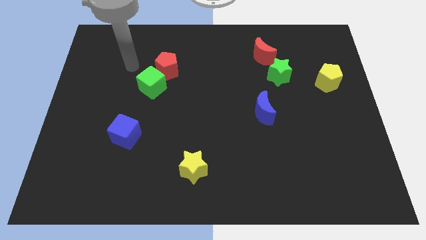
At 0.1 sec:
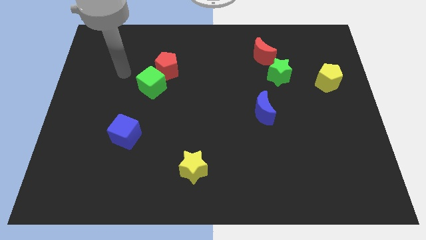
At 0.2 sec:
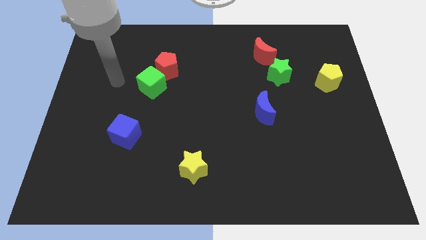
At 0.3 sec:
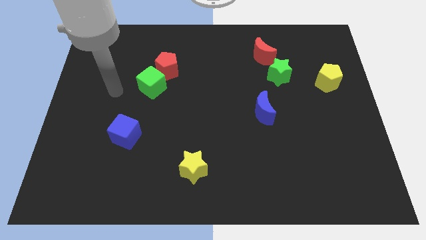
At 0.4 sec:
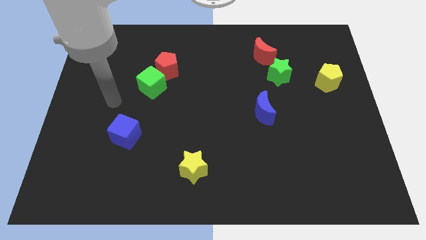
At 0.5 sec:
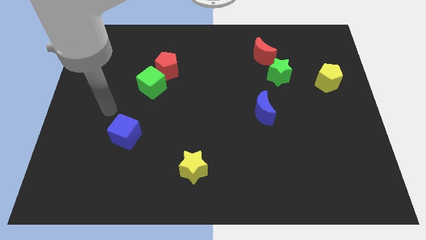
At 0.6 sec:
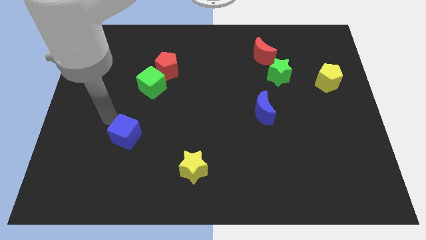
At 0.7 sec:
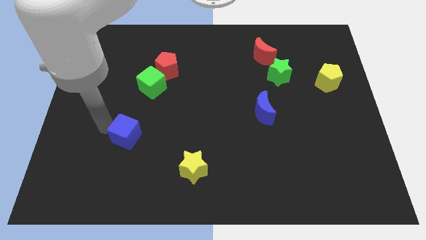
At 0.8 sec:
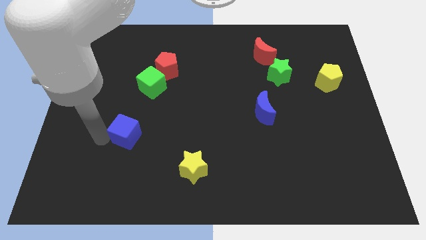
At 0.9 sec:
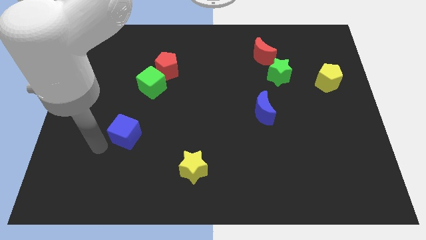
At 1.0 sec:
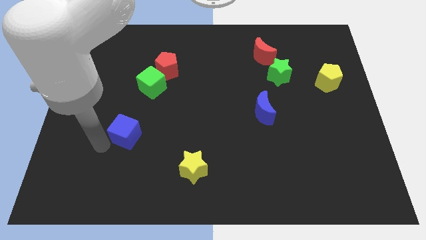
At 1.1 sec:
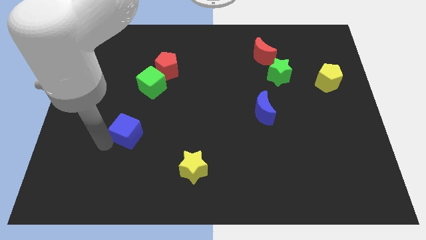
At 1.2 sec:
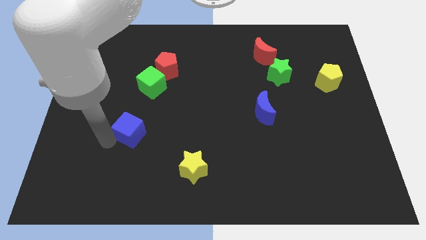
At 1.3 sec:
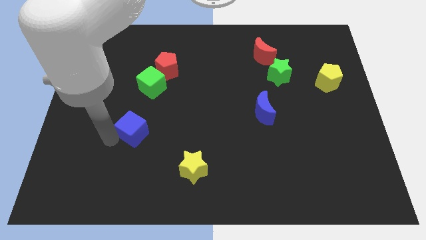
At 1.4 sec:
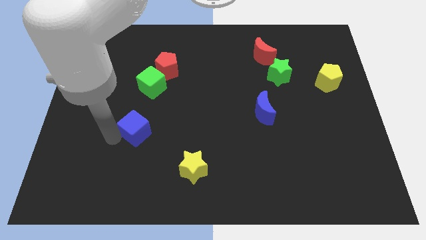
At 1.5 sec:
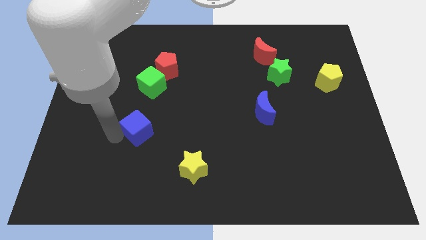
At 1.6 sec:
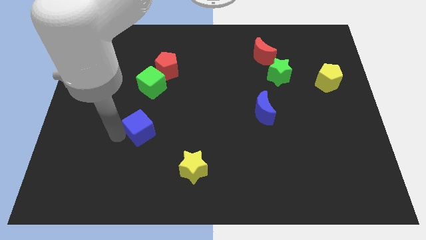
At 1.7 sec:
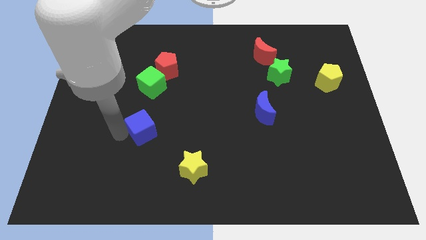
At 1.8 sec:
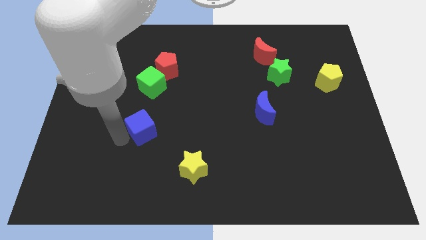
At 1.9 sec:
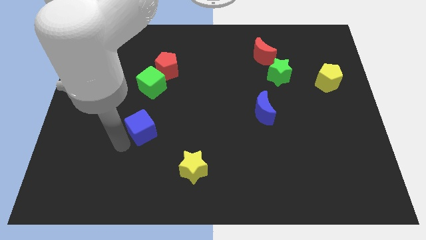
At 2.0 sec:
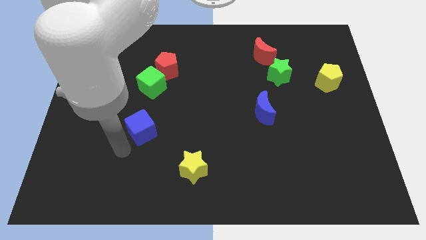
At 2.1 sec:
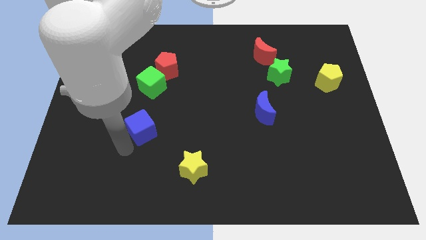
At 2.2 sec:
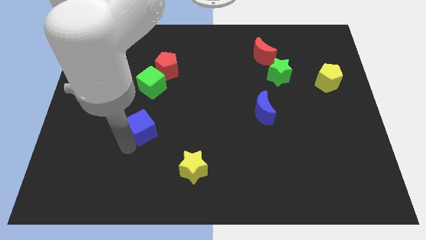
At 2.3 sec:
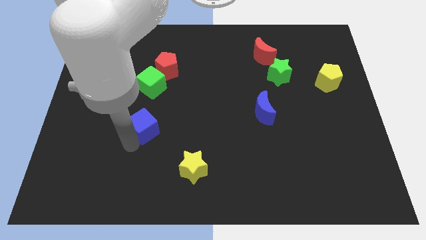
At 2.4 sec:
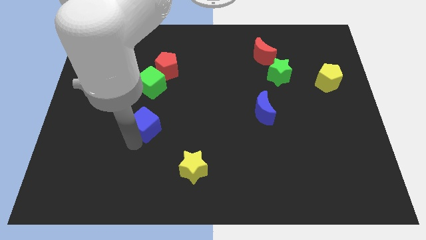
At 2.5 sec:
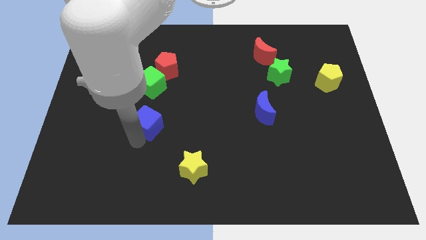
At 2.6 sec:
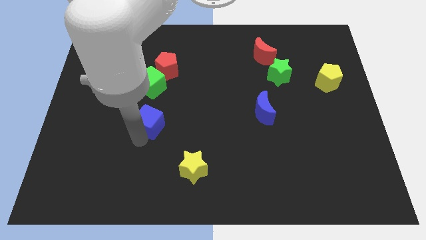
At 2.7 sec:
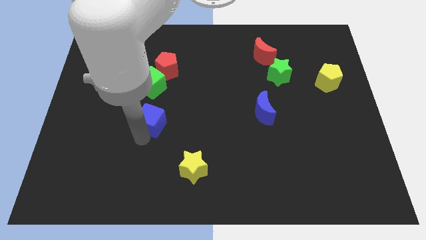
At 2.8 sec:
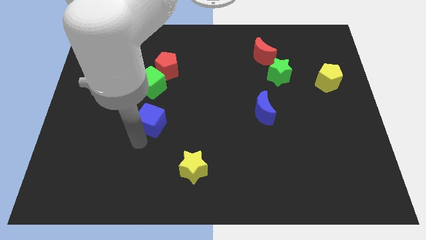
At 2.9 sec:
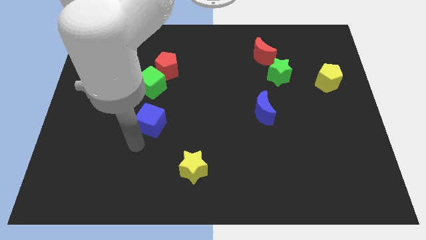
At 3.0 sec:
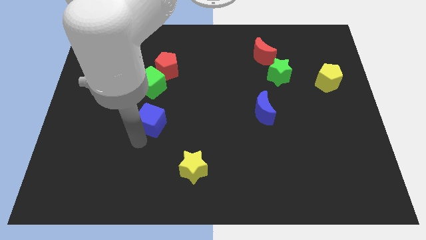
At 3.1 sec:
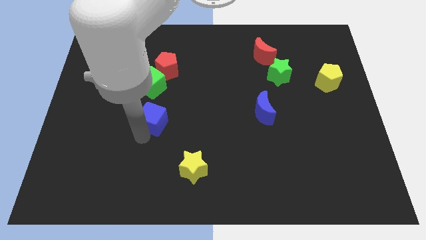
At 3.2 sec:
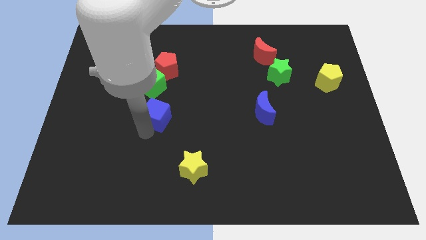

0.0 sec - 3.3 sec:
slide the blue cube slightly up and to the right

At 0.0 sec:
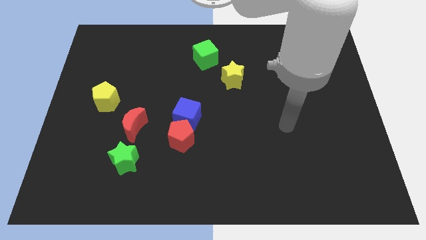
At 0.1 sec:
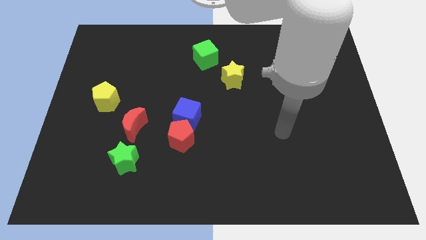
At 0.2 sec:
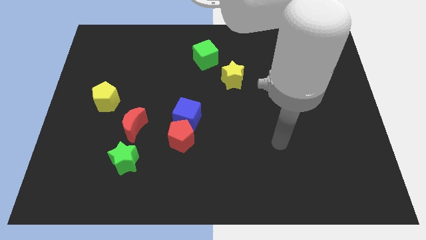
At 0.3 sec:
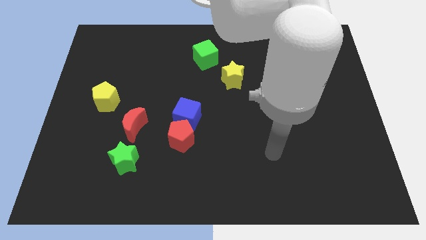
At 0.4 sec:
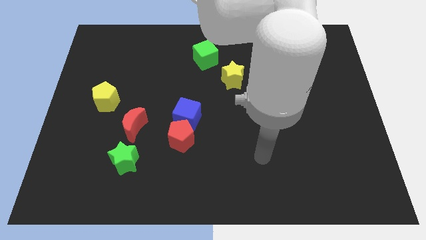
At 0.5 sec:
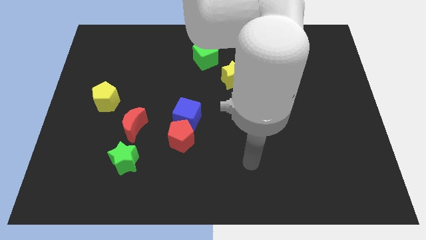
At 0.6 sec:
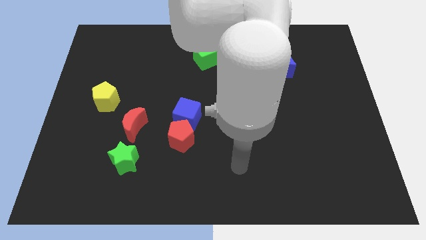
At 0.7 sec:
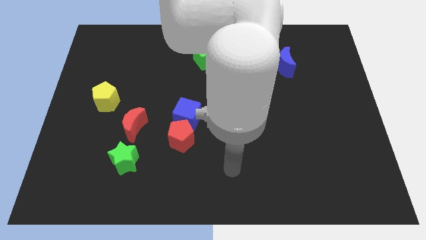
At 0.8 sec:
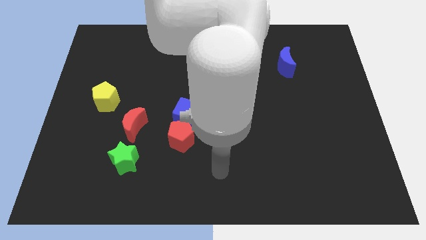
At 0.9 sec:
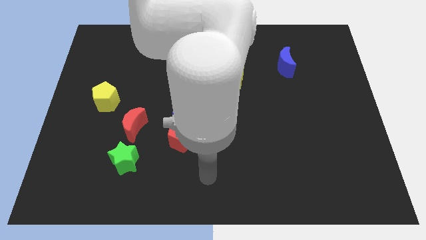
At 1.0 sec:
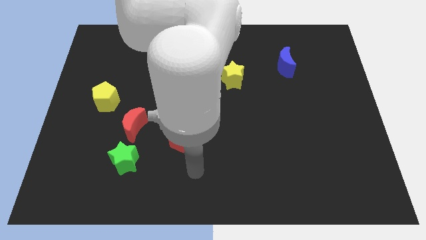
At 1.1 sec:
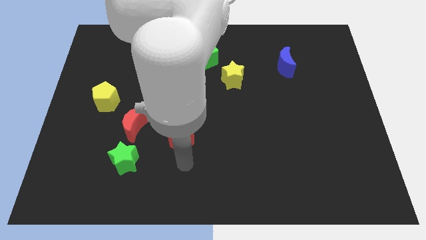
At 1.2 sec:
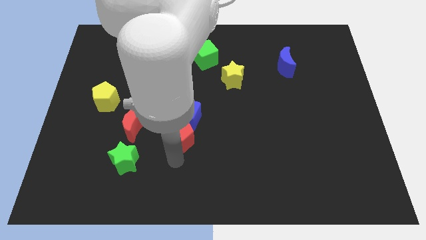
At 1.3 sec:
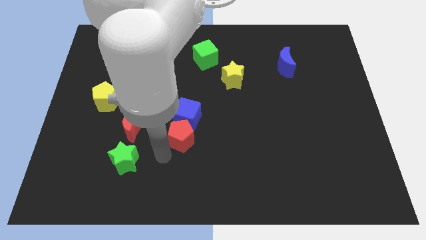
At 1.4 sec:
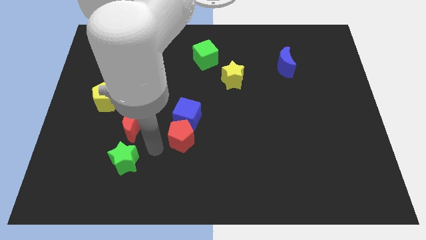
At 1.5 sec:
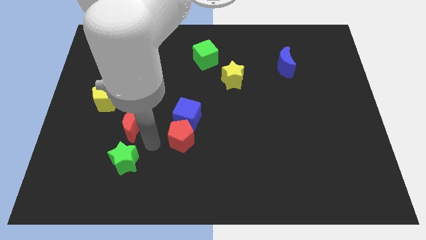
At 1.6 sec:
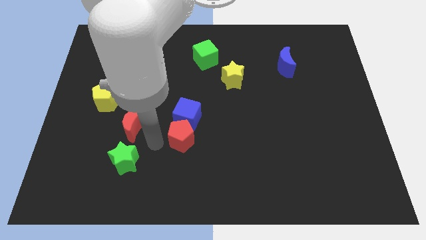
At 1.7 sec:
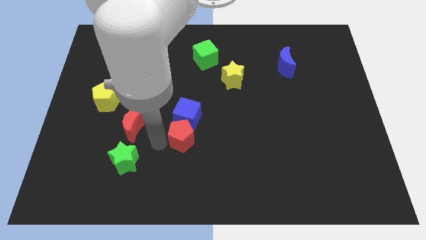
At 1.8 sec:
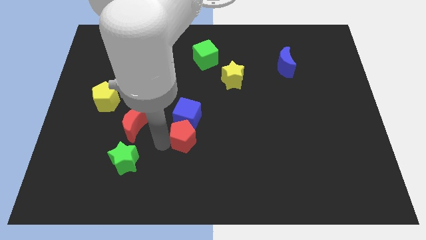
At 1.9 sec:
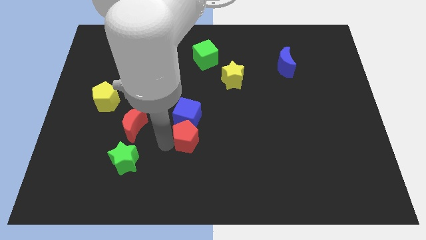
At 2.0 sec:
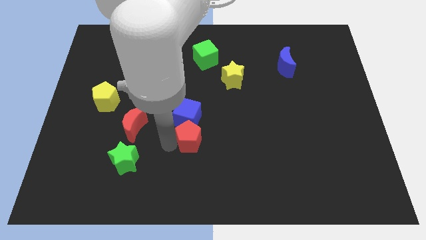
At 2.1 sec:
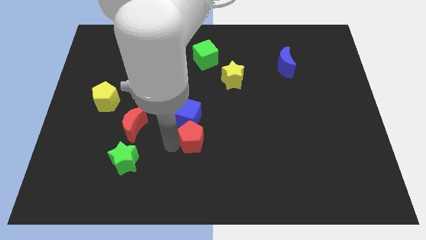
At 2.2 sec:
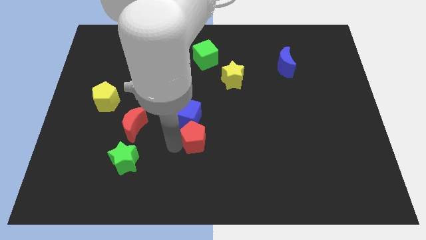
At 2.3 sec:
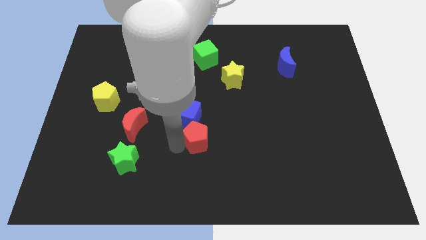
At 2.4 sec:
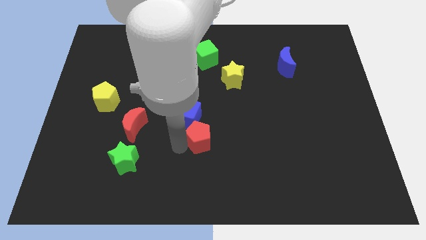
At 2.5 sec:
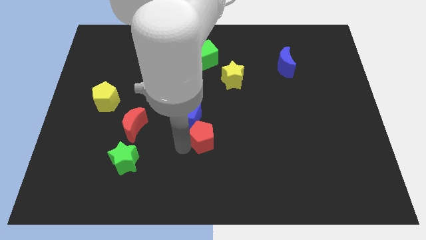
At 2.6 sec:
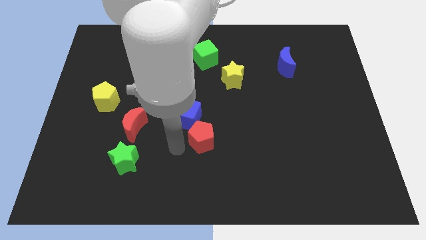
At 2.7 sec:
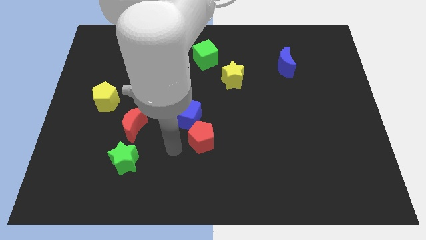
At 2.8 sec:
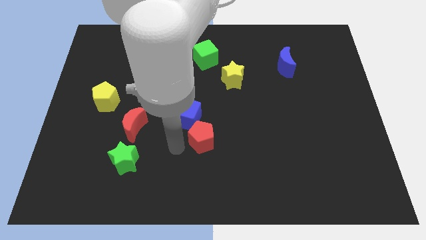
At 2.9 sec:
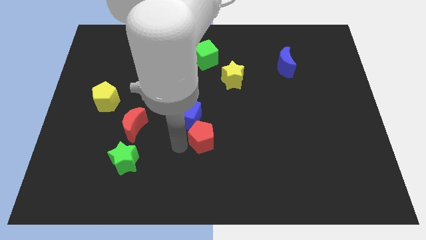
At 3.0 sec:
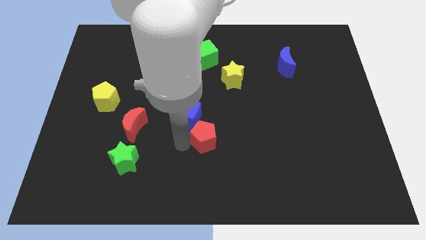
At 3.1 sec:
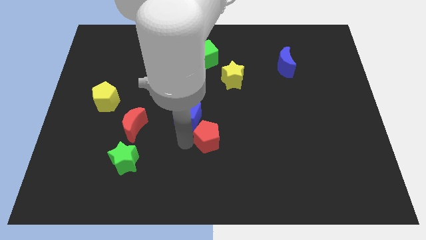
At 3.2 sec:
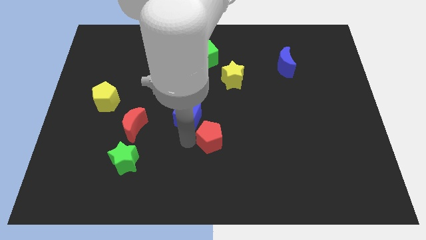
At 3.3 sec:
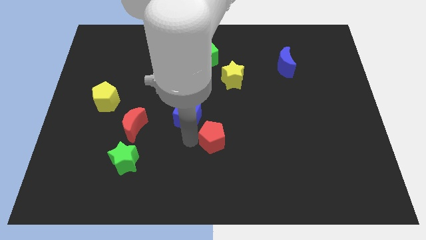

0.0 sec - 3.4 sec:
push the red pentagon right somewhat

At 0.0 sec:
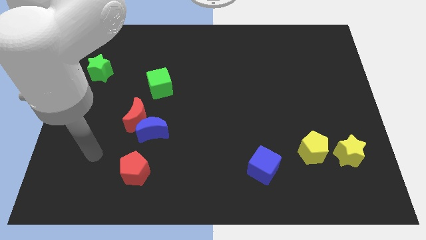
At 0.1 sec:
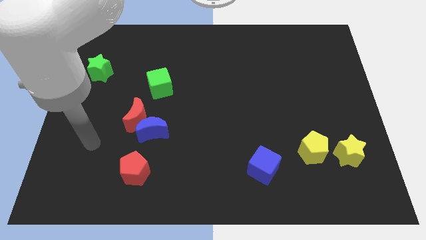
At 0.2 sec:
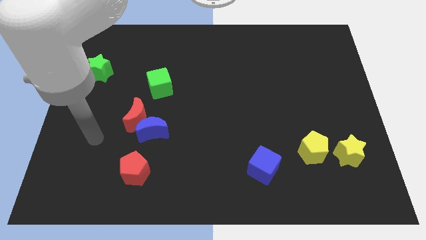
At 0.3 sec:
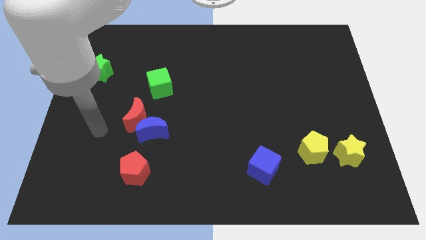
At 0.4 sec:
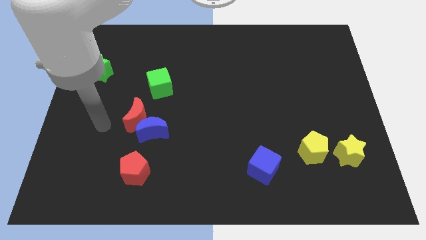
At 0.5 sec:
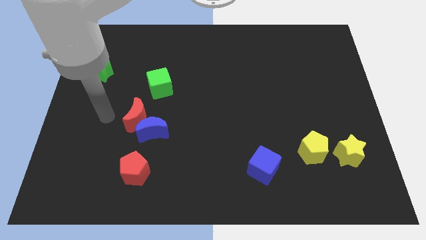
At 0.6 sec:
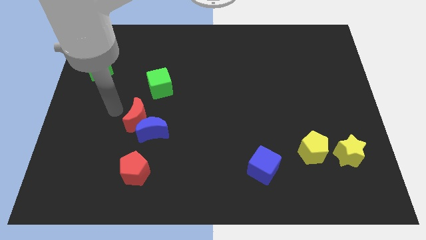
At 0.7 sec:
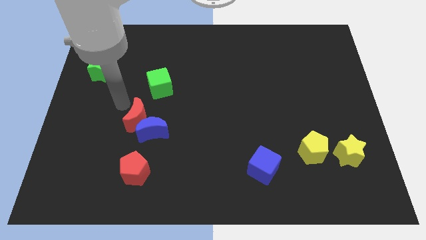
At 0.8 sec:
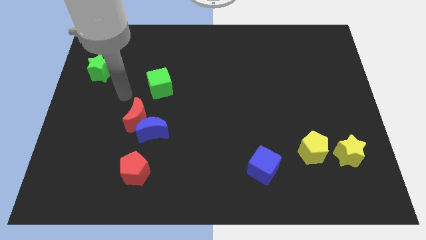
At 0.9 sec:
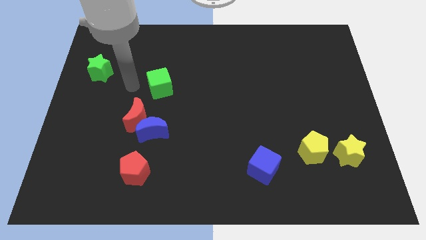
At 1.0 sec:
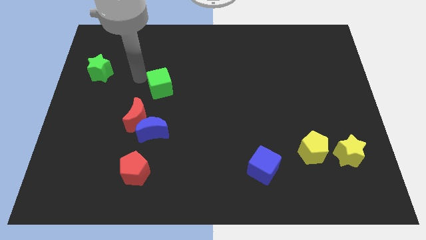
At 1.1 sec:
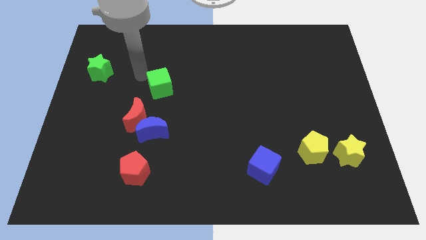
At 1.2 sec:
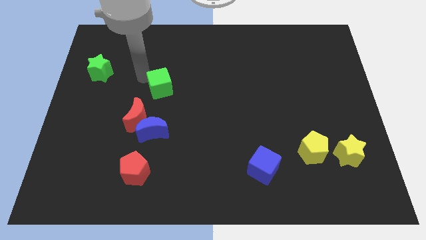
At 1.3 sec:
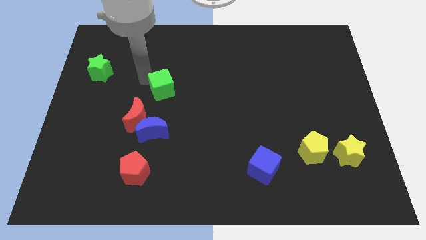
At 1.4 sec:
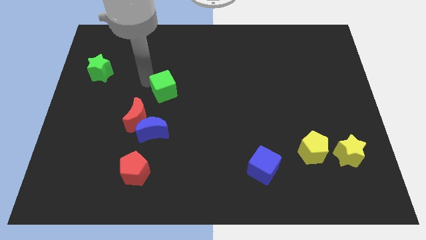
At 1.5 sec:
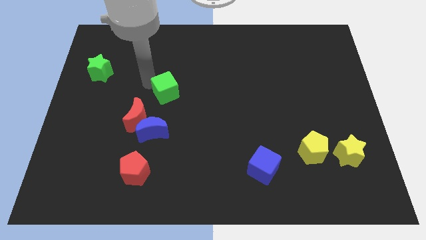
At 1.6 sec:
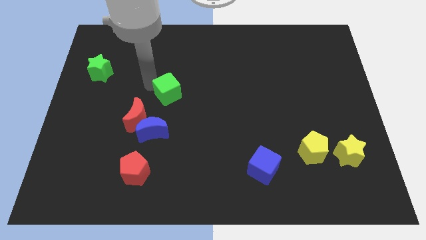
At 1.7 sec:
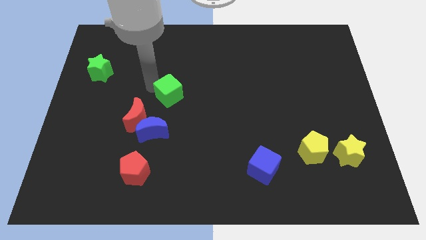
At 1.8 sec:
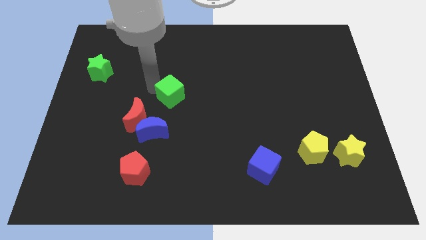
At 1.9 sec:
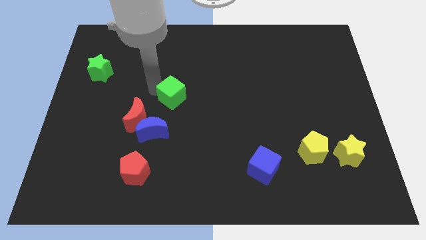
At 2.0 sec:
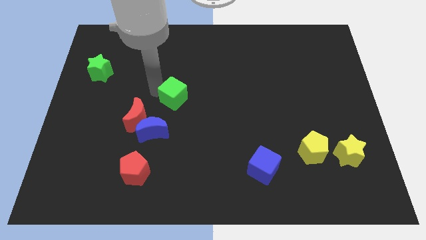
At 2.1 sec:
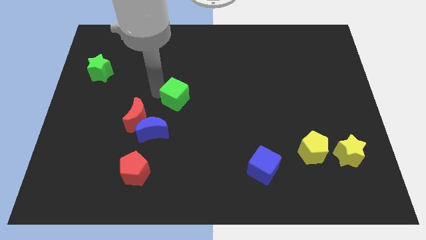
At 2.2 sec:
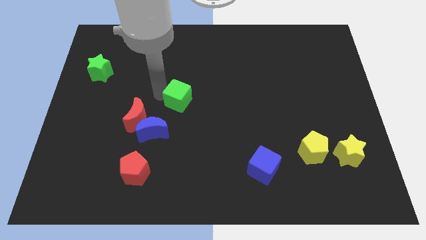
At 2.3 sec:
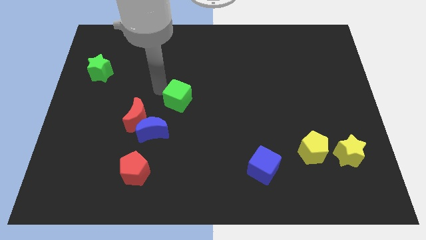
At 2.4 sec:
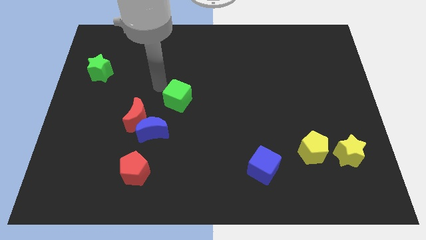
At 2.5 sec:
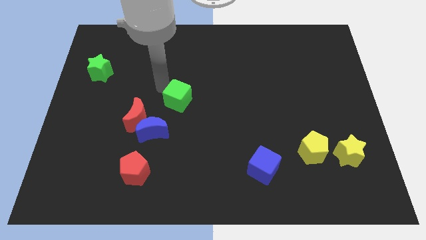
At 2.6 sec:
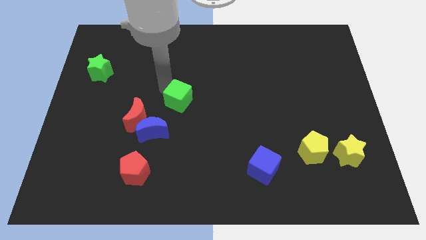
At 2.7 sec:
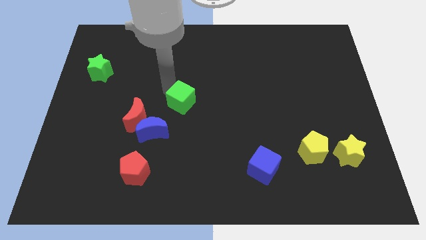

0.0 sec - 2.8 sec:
push the green cube somewhat diagonally down and right
